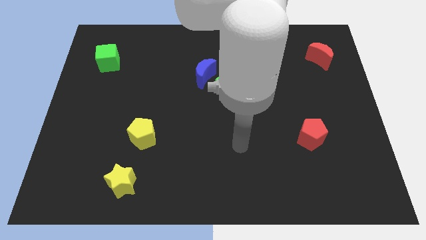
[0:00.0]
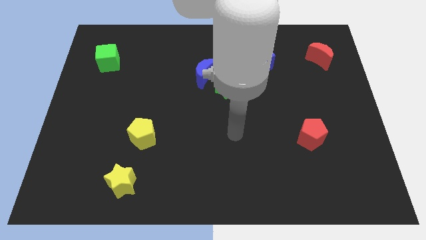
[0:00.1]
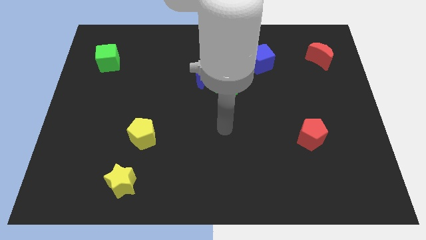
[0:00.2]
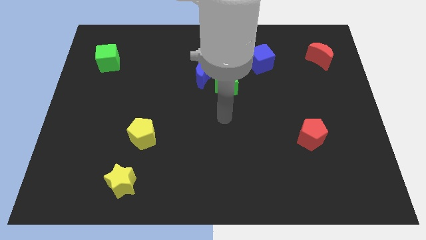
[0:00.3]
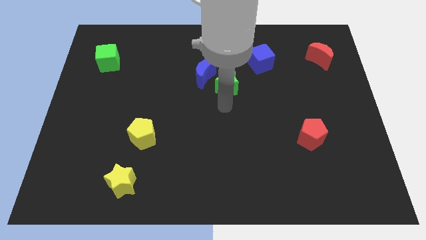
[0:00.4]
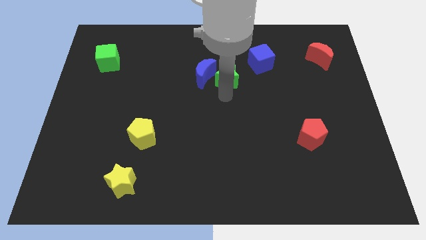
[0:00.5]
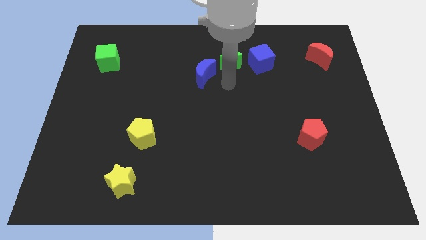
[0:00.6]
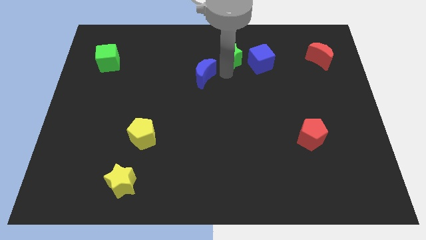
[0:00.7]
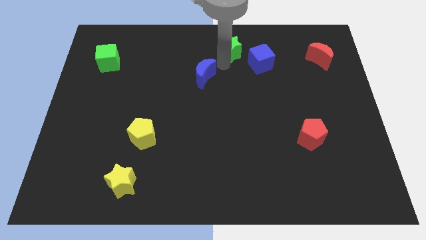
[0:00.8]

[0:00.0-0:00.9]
separate the blue moon from the green star

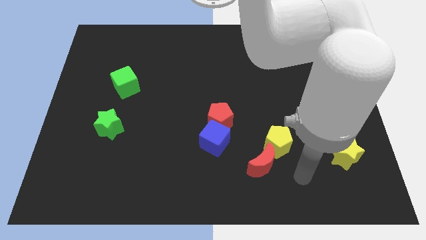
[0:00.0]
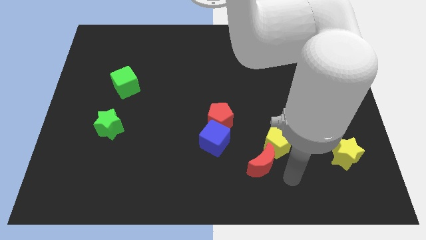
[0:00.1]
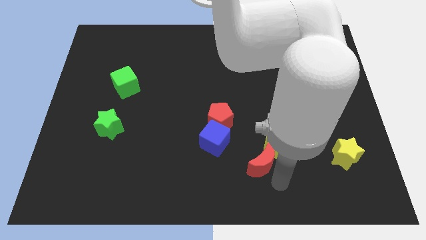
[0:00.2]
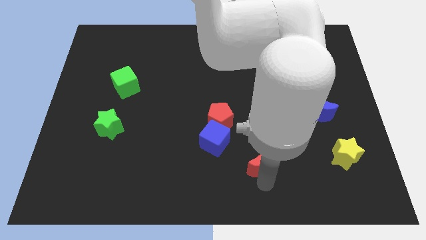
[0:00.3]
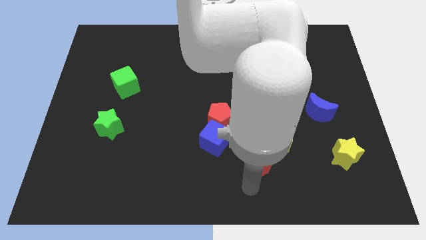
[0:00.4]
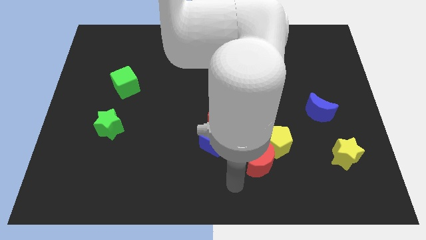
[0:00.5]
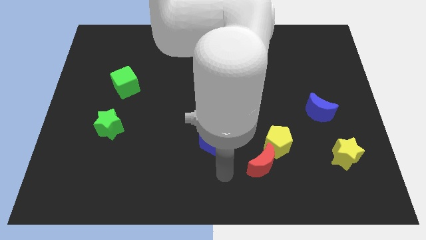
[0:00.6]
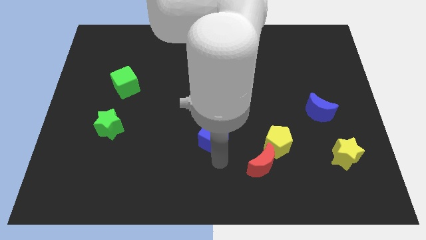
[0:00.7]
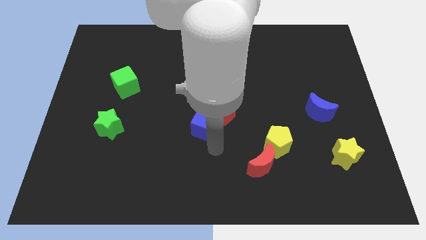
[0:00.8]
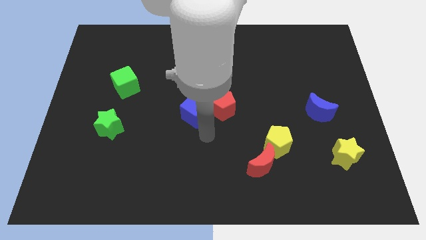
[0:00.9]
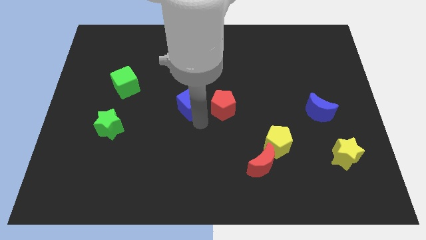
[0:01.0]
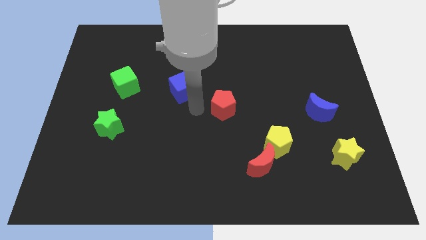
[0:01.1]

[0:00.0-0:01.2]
move the red pentagon away from the blue cube

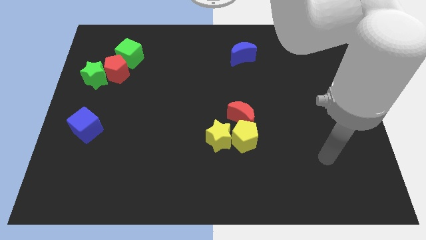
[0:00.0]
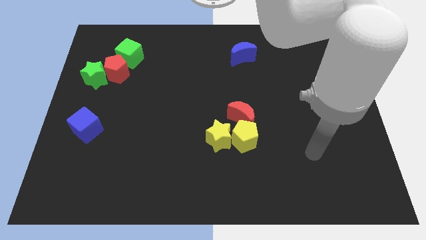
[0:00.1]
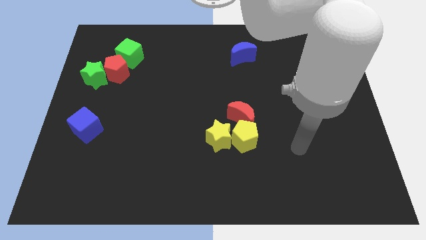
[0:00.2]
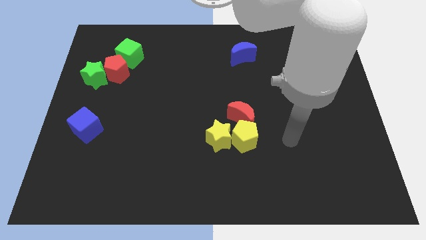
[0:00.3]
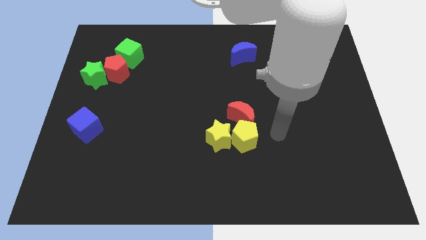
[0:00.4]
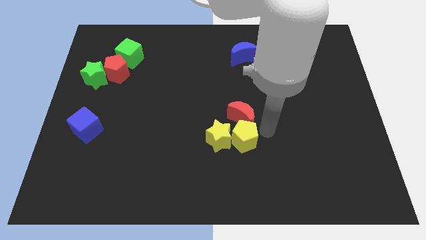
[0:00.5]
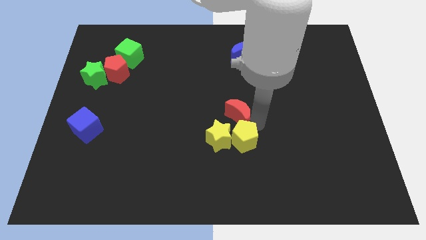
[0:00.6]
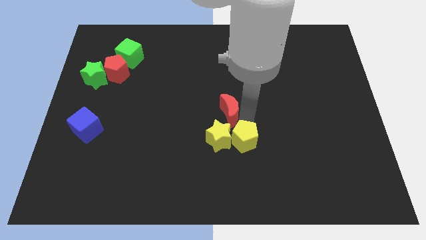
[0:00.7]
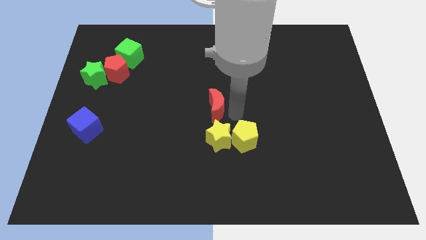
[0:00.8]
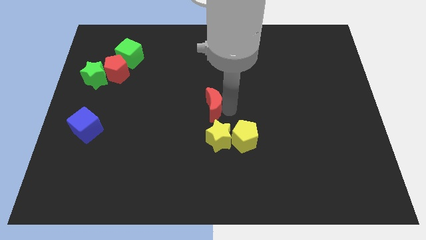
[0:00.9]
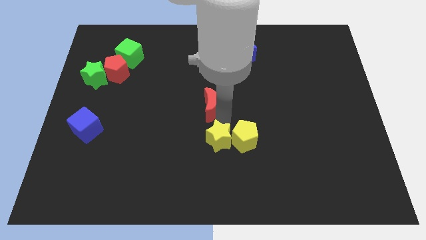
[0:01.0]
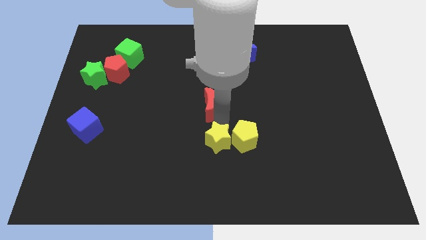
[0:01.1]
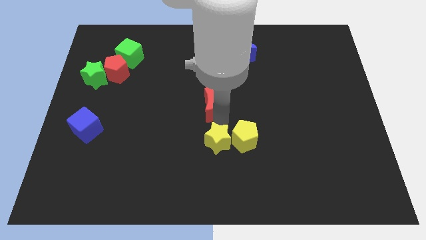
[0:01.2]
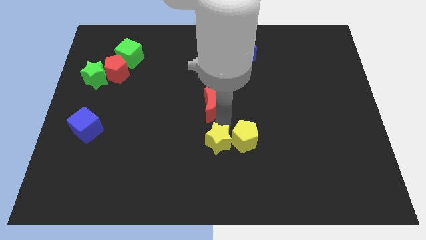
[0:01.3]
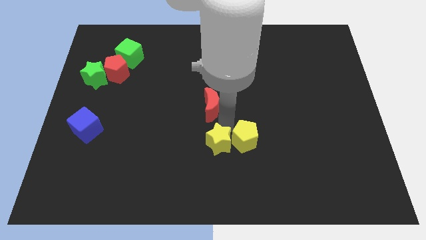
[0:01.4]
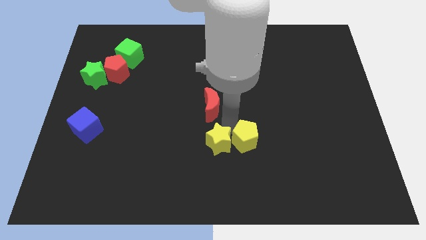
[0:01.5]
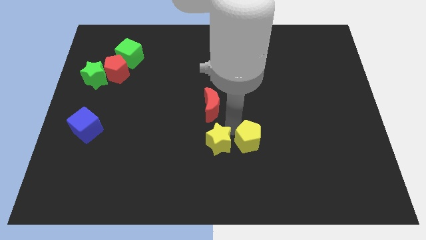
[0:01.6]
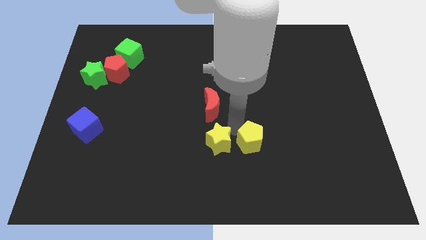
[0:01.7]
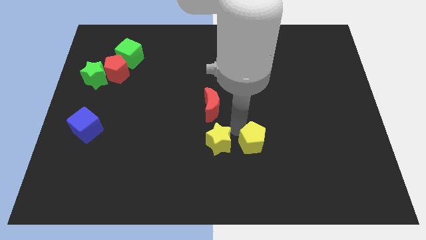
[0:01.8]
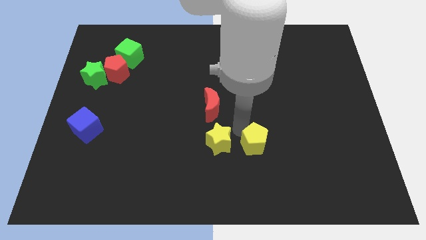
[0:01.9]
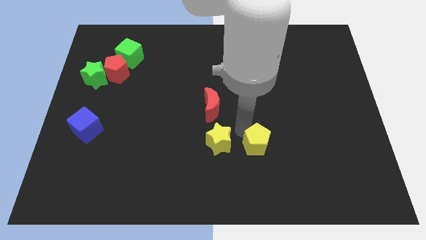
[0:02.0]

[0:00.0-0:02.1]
pull the yellow pentagon apart from the yellow star and red moon

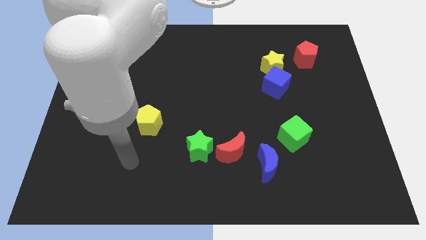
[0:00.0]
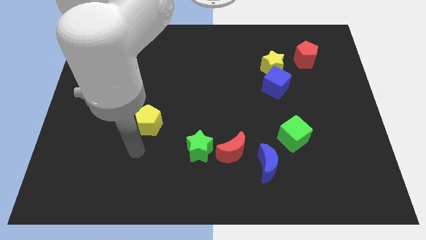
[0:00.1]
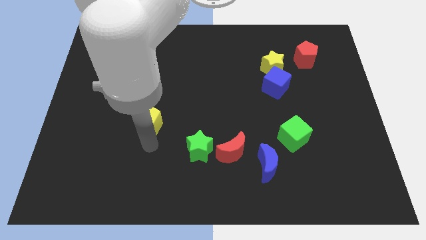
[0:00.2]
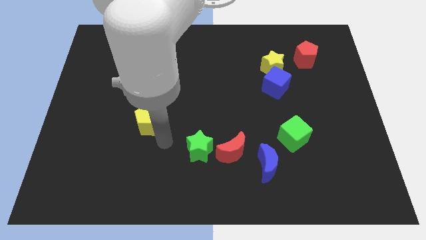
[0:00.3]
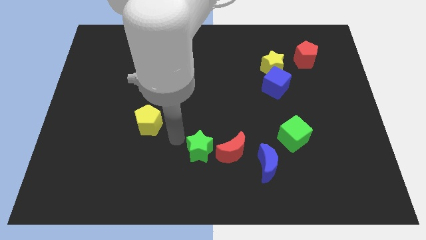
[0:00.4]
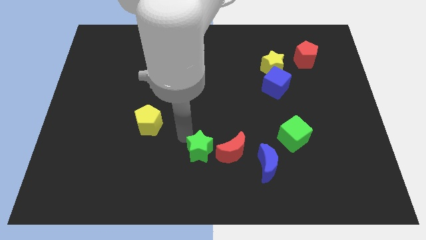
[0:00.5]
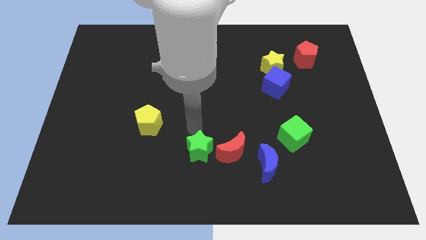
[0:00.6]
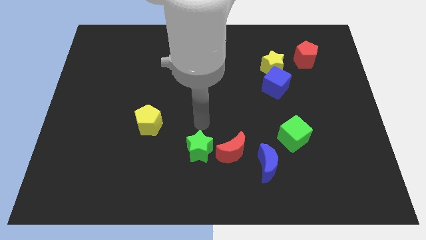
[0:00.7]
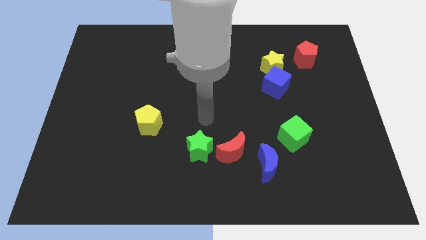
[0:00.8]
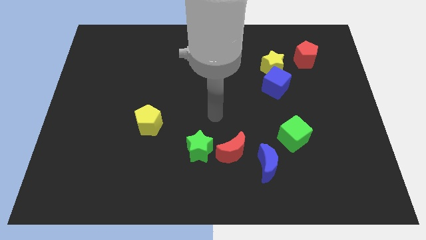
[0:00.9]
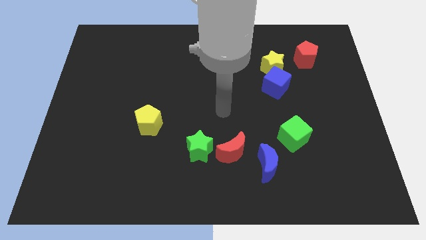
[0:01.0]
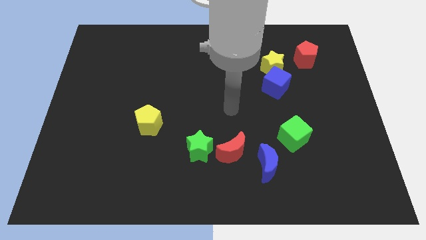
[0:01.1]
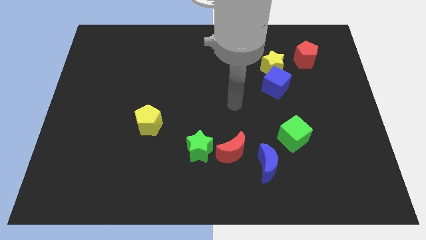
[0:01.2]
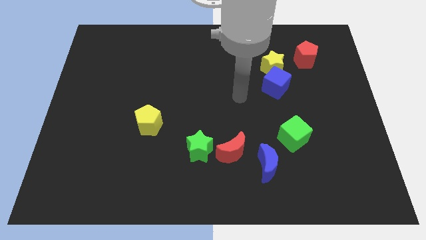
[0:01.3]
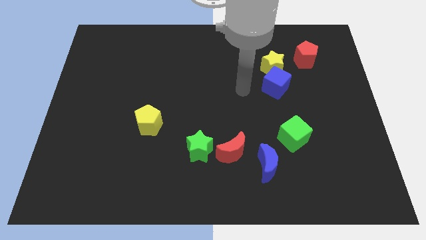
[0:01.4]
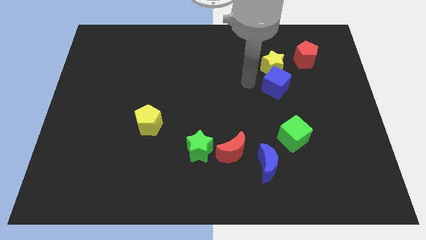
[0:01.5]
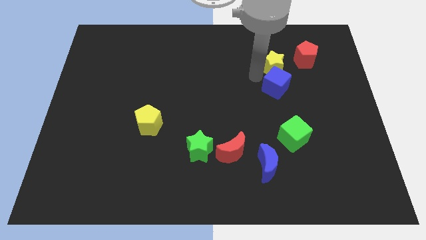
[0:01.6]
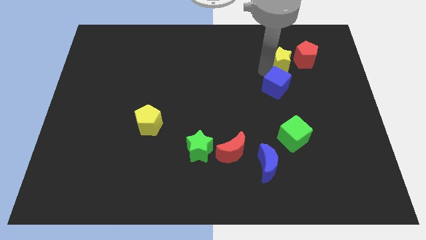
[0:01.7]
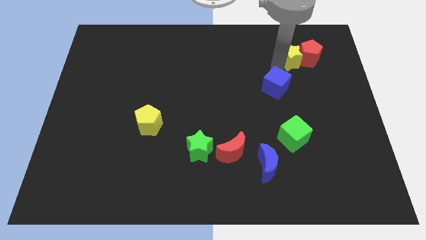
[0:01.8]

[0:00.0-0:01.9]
move the blue cube away from the yellow star

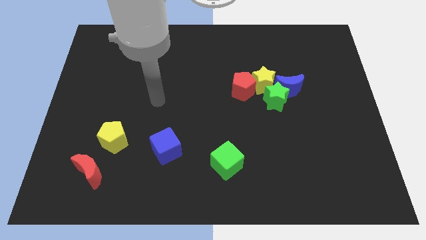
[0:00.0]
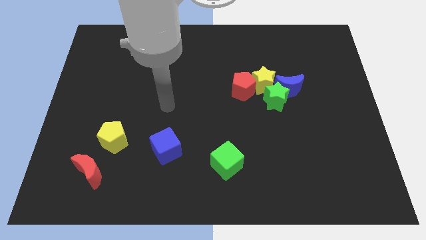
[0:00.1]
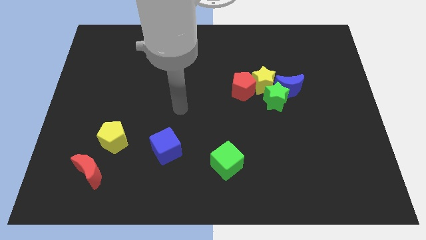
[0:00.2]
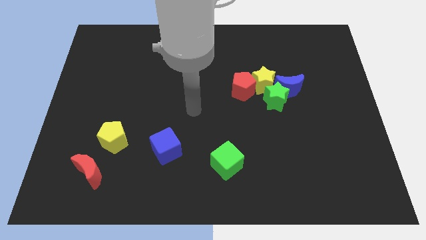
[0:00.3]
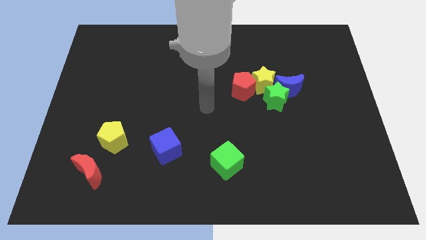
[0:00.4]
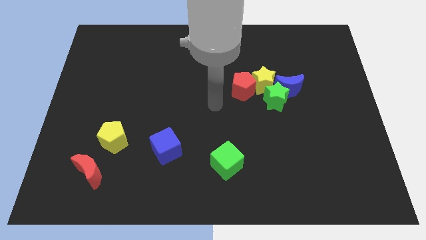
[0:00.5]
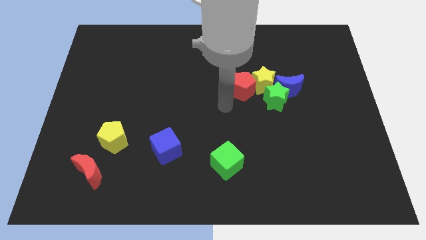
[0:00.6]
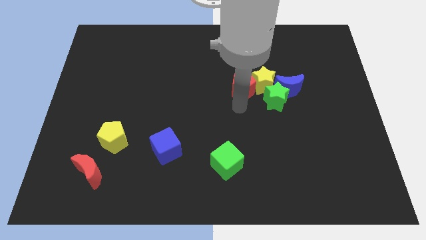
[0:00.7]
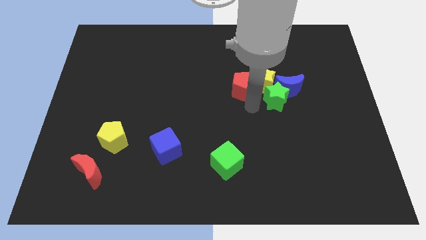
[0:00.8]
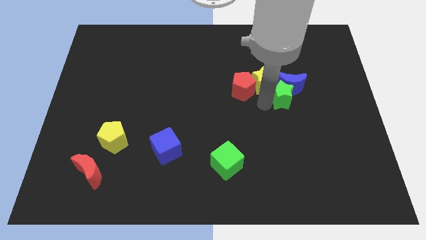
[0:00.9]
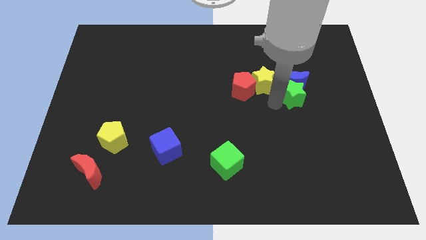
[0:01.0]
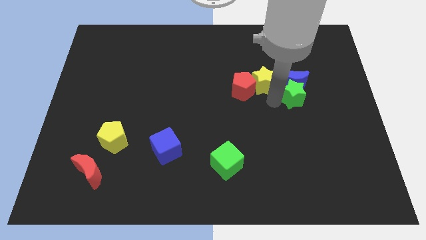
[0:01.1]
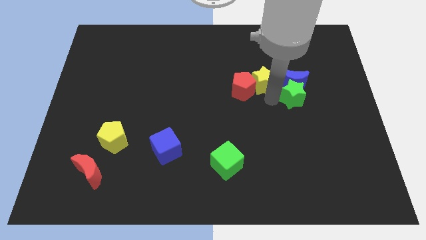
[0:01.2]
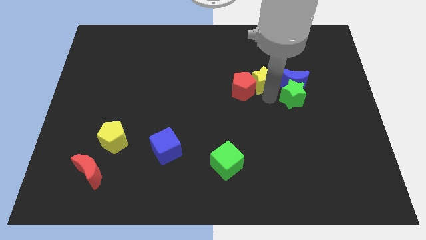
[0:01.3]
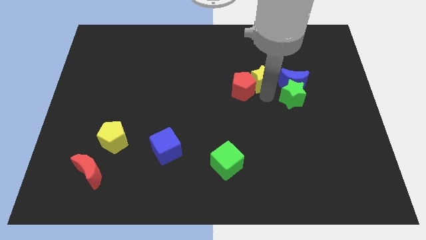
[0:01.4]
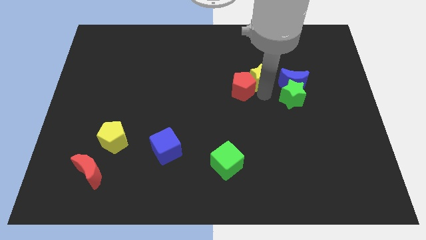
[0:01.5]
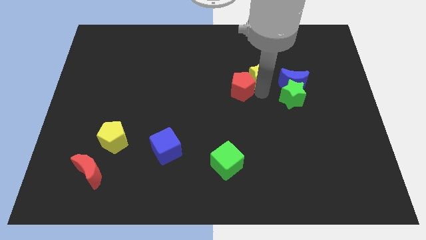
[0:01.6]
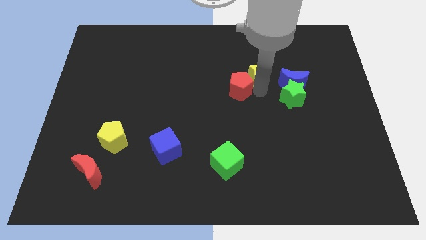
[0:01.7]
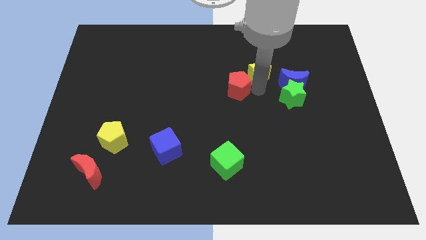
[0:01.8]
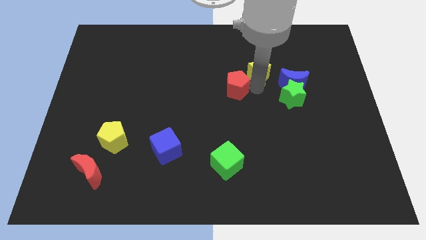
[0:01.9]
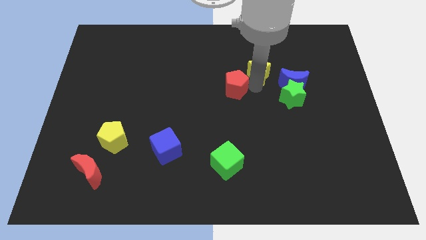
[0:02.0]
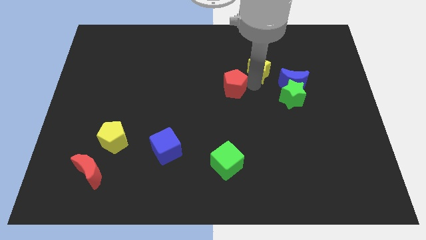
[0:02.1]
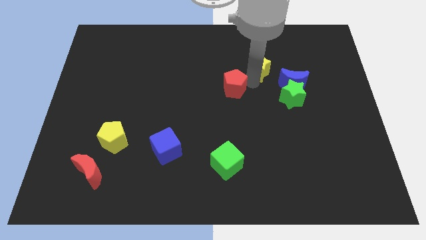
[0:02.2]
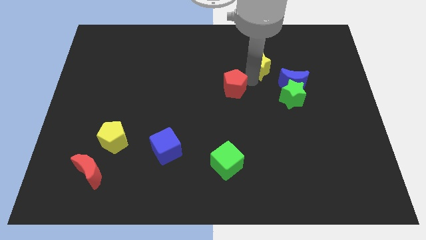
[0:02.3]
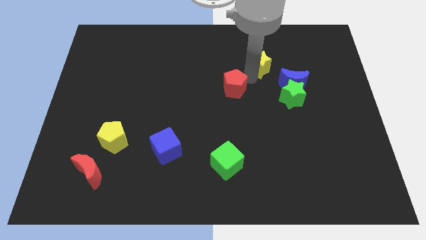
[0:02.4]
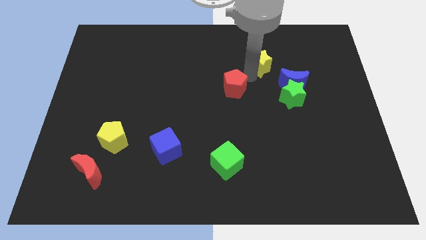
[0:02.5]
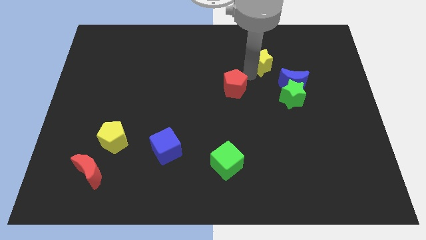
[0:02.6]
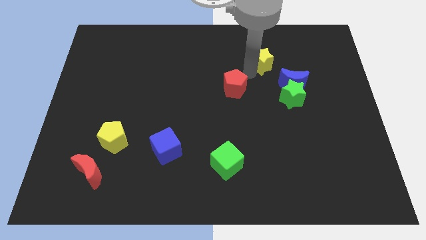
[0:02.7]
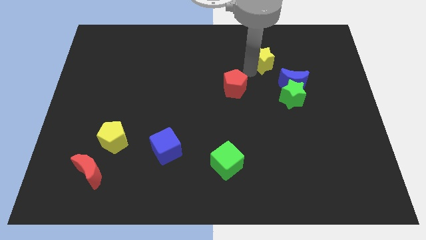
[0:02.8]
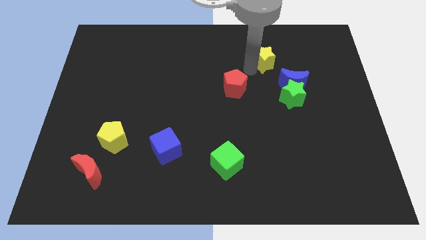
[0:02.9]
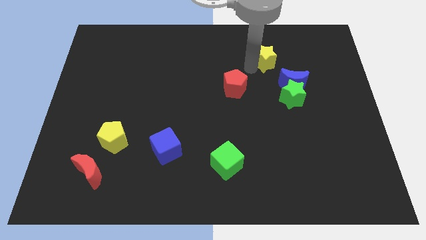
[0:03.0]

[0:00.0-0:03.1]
separate the yellow star from the red pentagon, green star, and blue moon
